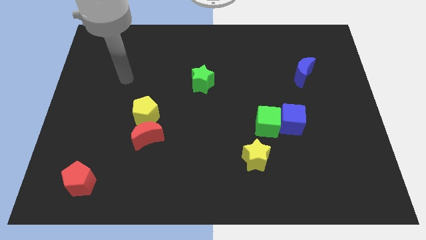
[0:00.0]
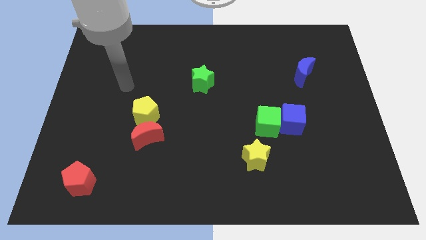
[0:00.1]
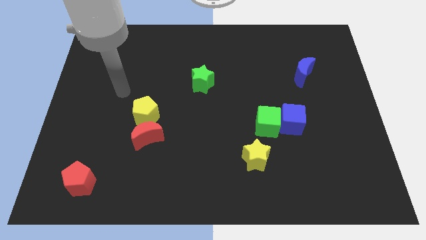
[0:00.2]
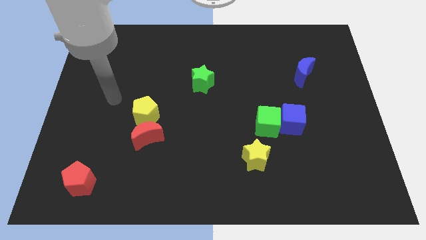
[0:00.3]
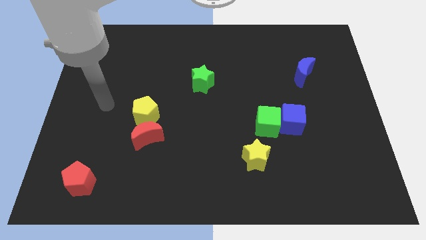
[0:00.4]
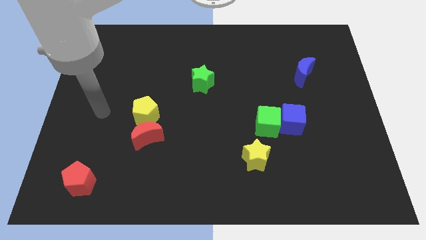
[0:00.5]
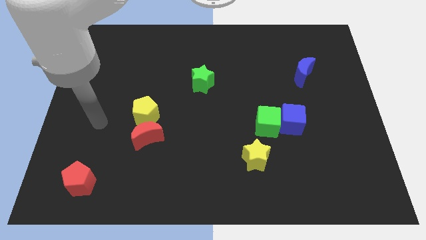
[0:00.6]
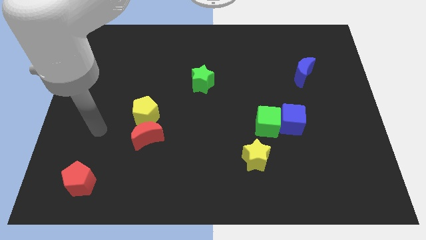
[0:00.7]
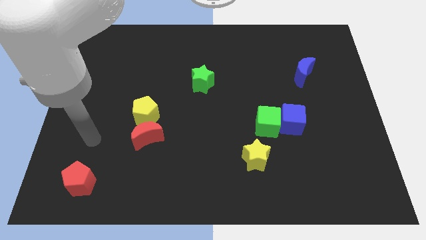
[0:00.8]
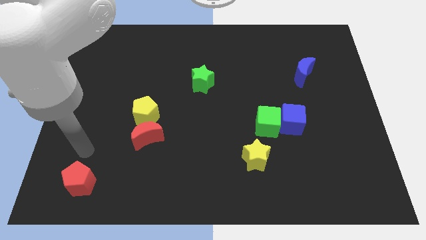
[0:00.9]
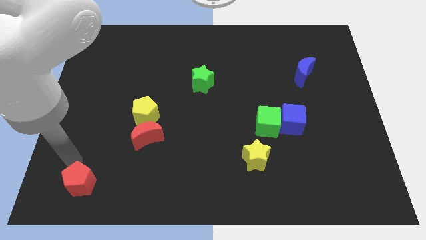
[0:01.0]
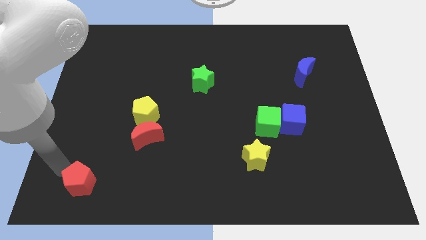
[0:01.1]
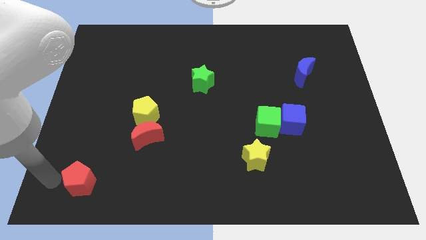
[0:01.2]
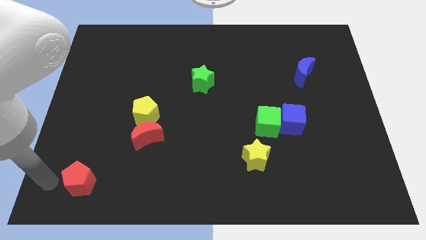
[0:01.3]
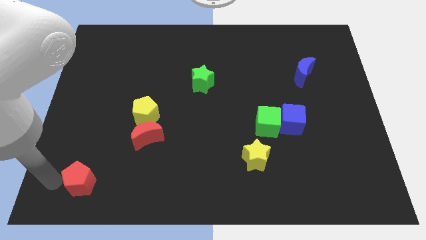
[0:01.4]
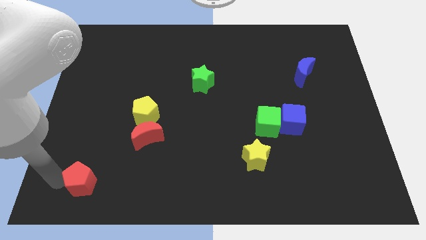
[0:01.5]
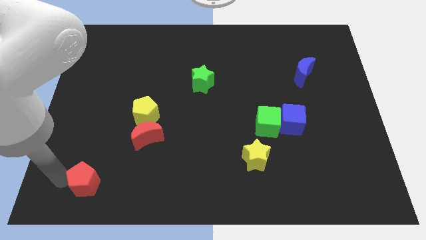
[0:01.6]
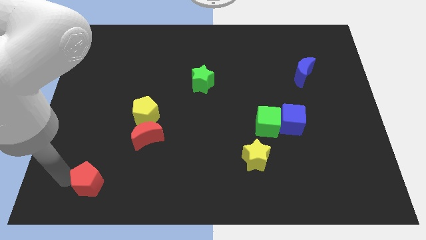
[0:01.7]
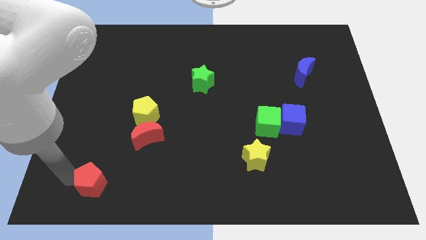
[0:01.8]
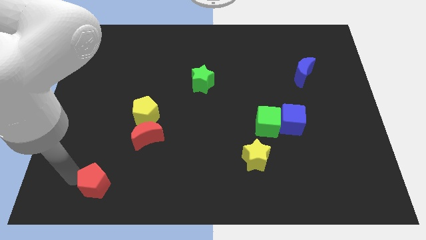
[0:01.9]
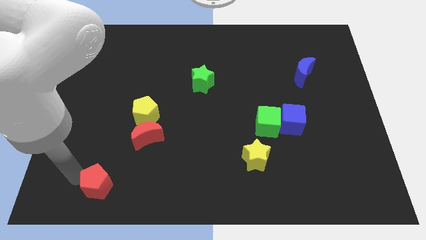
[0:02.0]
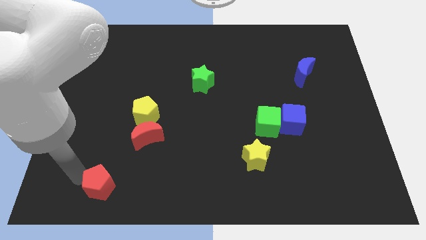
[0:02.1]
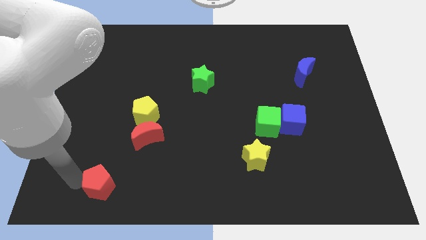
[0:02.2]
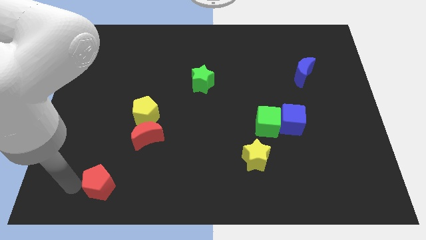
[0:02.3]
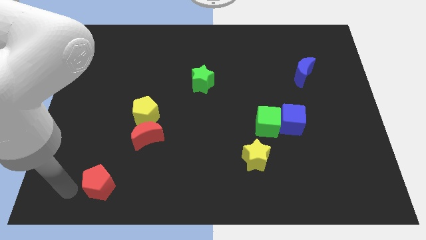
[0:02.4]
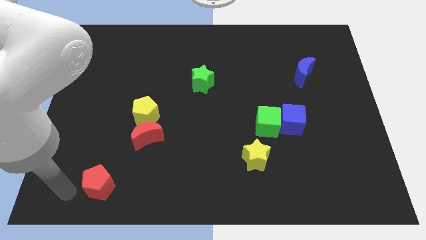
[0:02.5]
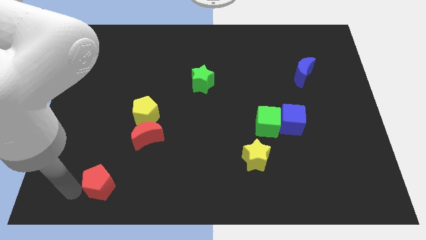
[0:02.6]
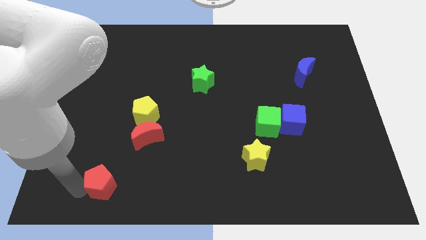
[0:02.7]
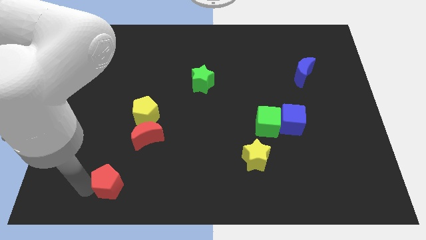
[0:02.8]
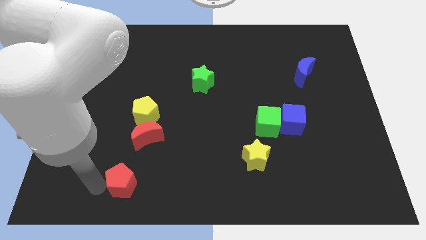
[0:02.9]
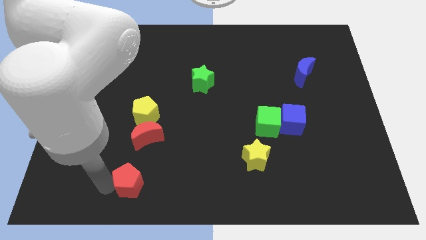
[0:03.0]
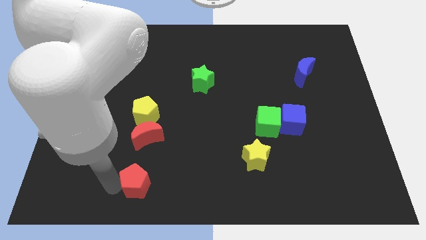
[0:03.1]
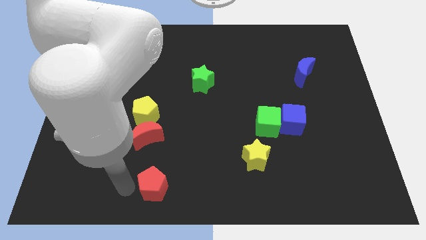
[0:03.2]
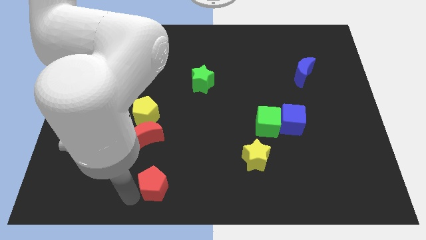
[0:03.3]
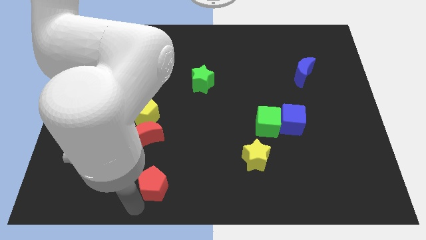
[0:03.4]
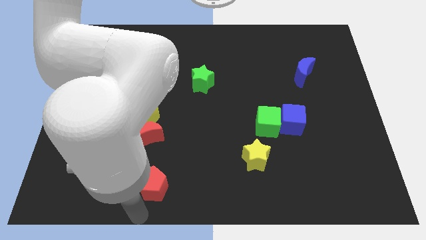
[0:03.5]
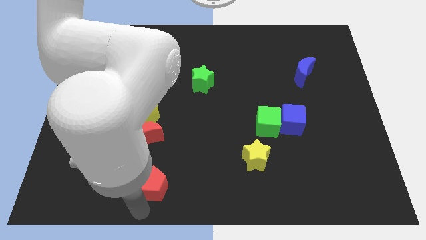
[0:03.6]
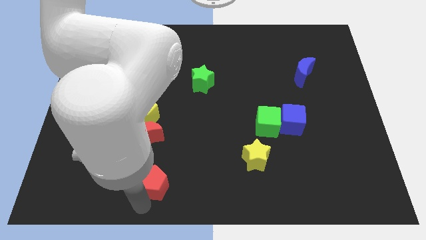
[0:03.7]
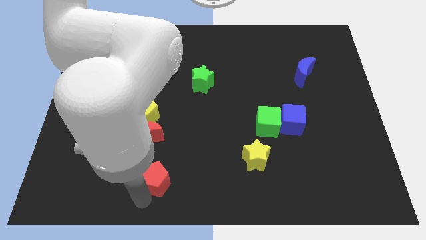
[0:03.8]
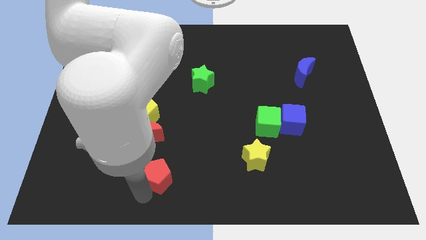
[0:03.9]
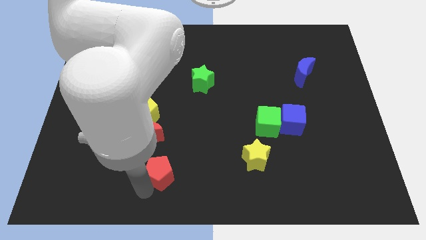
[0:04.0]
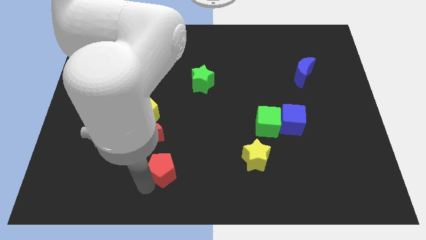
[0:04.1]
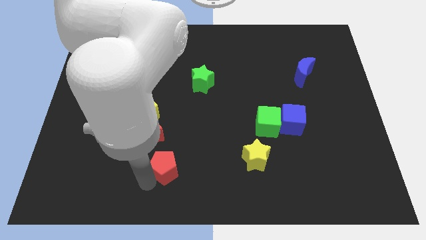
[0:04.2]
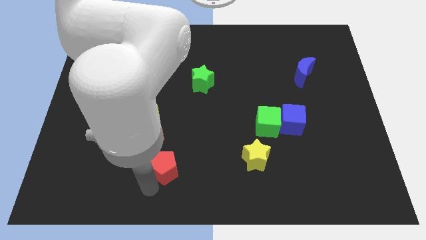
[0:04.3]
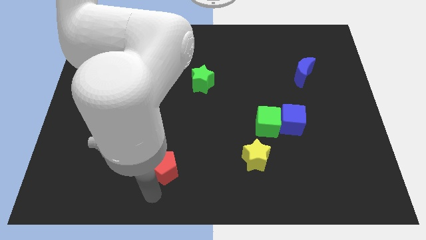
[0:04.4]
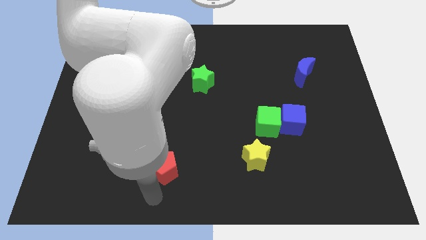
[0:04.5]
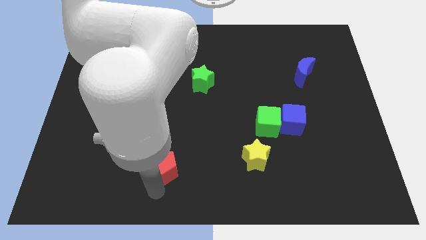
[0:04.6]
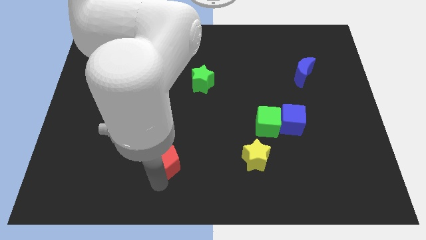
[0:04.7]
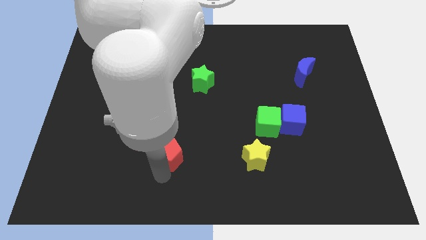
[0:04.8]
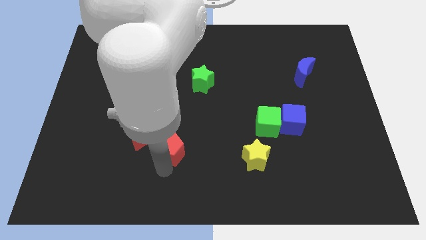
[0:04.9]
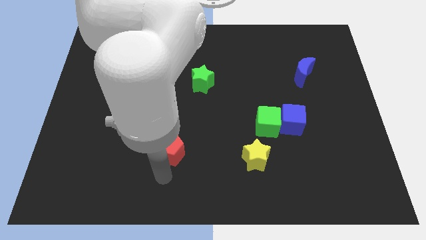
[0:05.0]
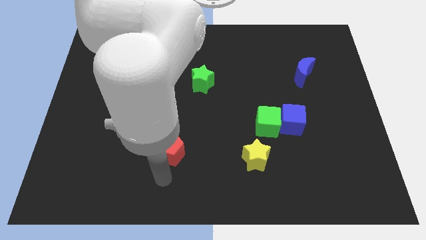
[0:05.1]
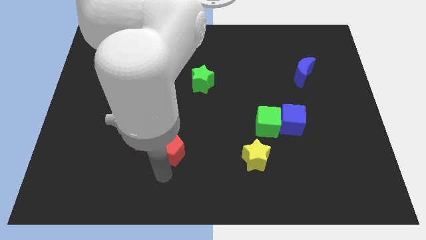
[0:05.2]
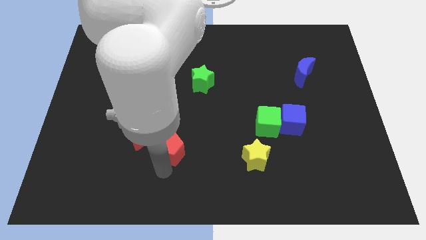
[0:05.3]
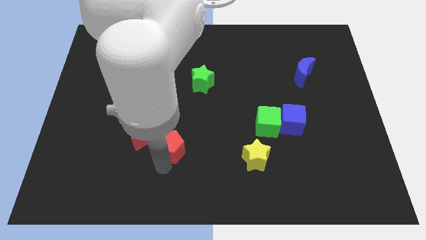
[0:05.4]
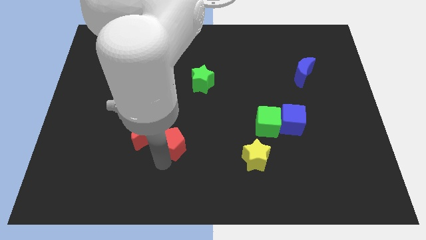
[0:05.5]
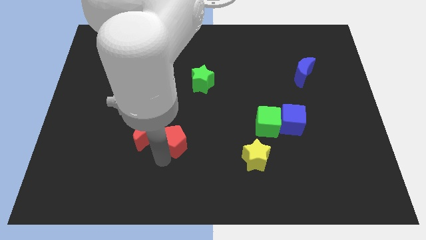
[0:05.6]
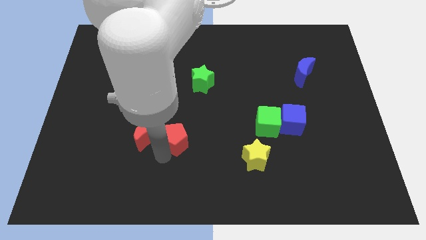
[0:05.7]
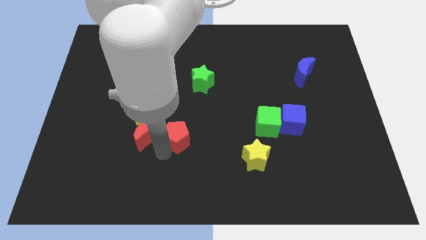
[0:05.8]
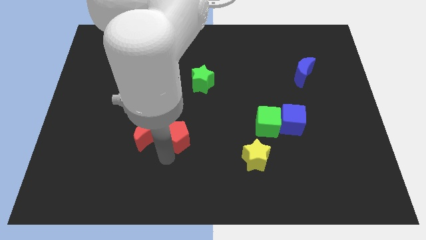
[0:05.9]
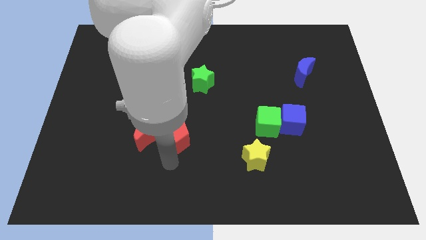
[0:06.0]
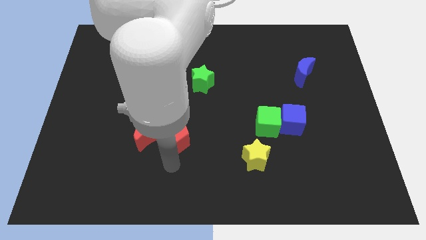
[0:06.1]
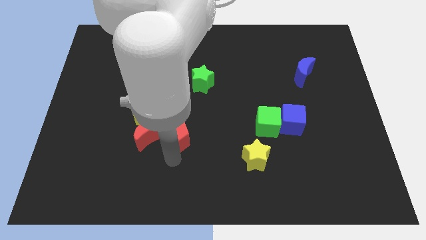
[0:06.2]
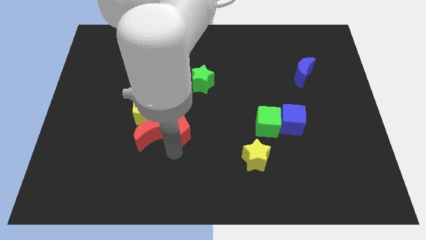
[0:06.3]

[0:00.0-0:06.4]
slide the red pentagon upwards and right

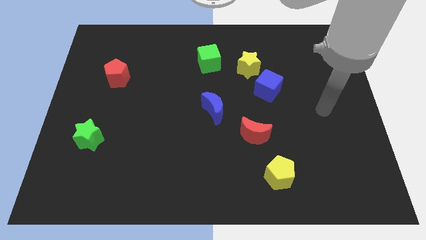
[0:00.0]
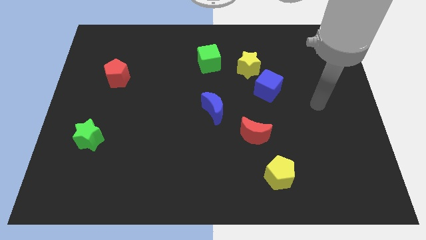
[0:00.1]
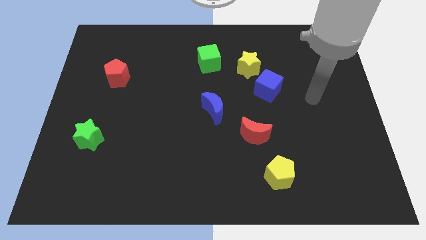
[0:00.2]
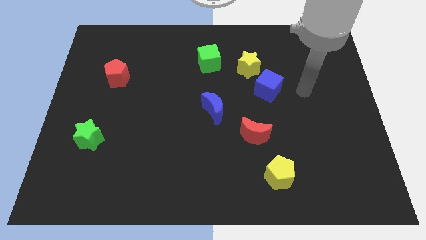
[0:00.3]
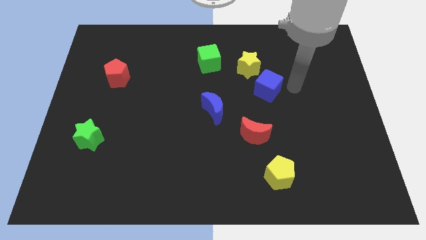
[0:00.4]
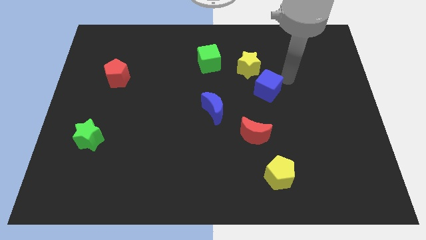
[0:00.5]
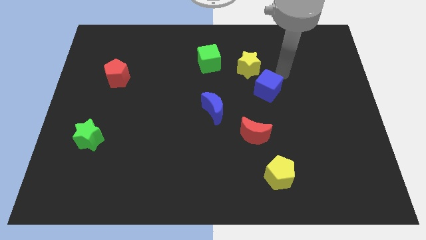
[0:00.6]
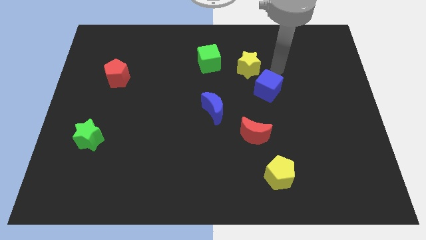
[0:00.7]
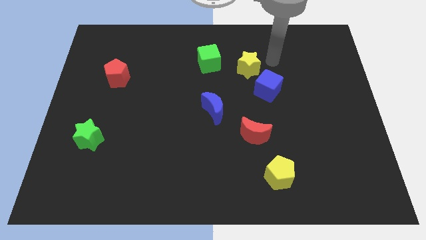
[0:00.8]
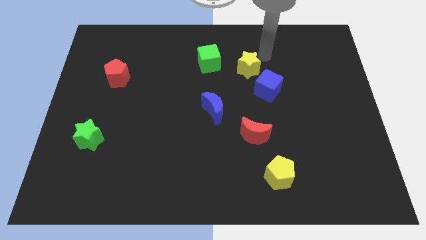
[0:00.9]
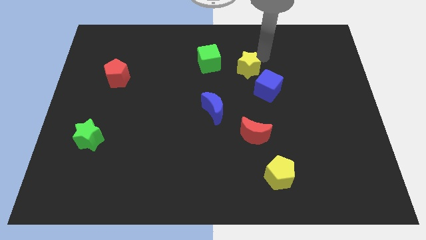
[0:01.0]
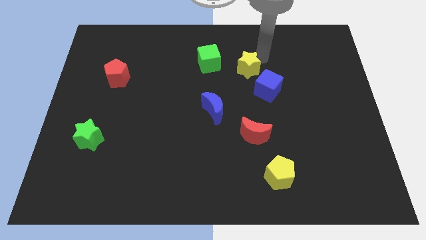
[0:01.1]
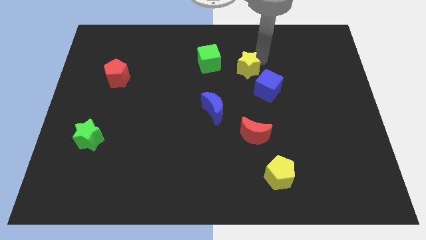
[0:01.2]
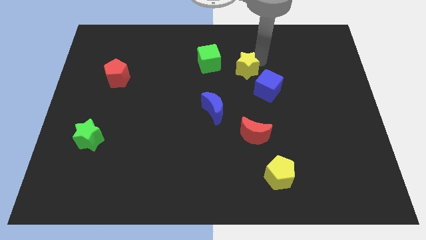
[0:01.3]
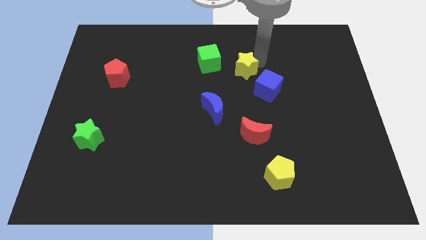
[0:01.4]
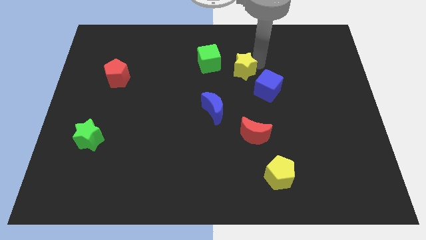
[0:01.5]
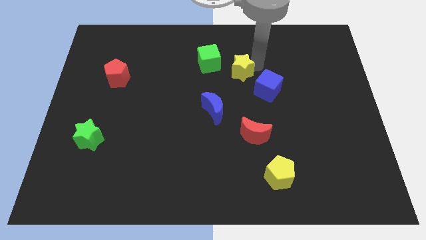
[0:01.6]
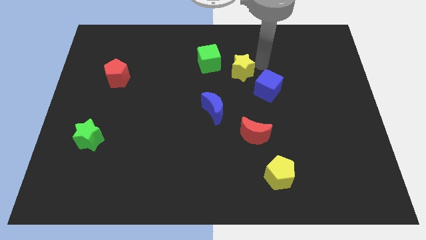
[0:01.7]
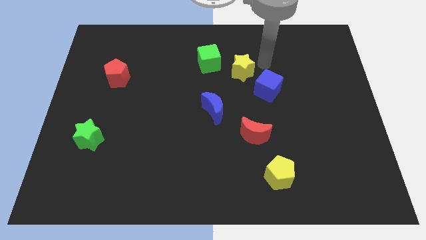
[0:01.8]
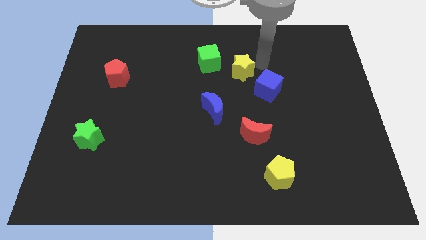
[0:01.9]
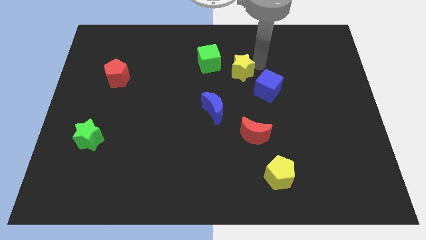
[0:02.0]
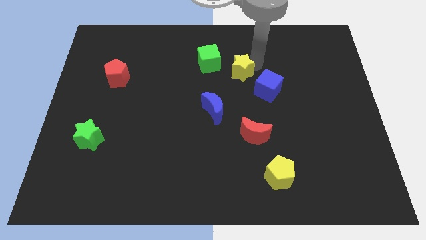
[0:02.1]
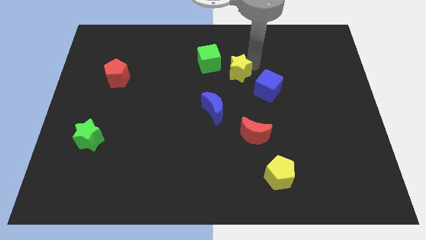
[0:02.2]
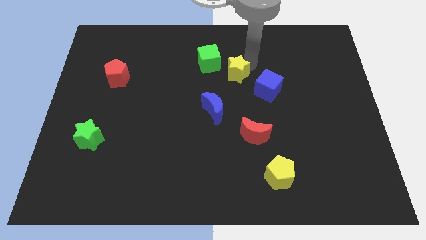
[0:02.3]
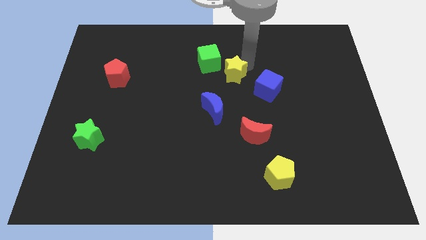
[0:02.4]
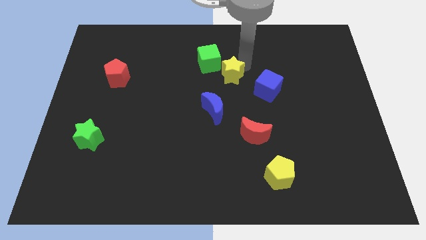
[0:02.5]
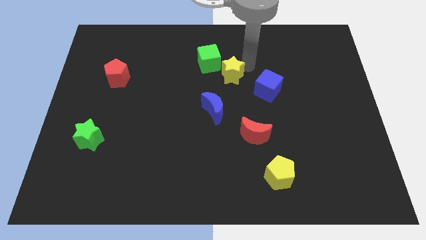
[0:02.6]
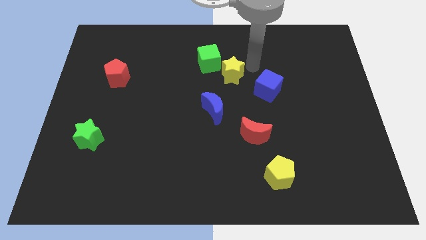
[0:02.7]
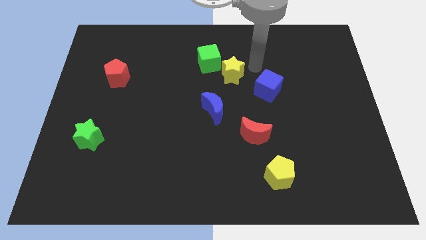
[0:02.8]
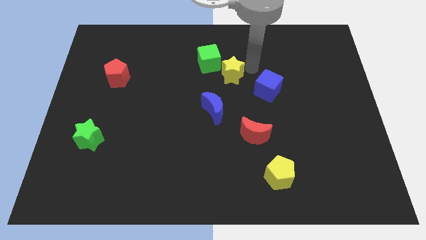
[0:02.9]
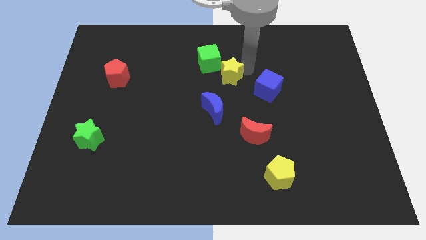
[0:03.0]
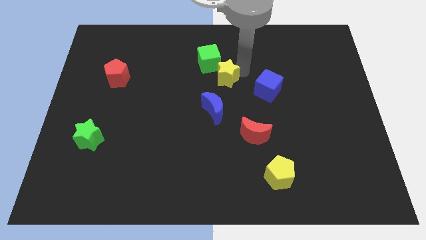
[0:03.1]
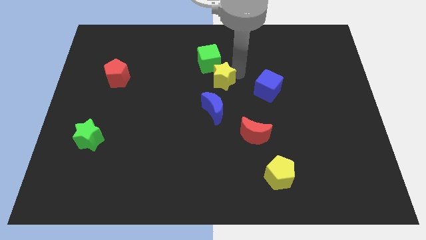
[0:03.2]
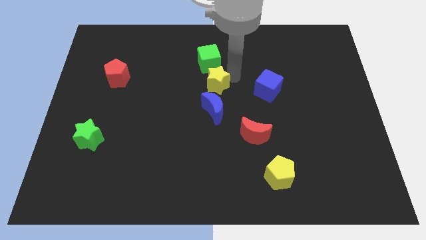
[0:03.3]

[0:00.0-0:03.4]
push the yellow star a little bit to the left
